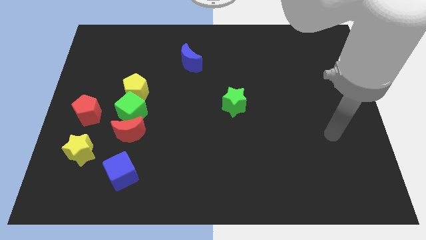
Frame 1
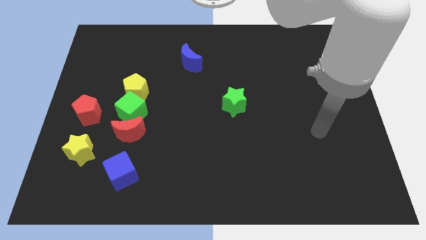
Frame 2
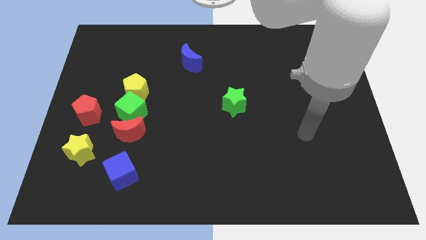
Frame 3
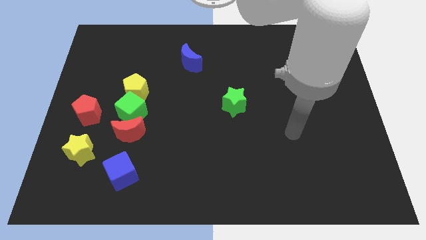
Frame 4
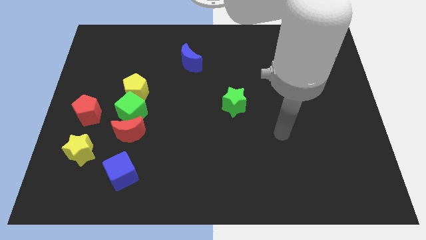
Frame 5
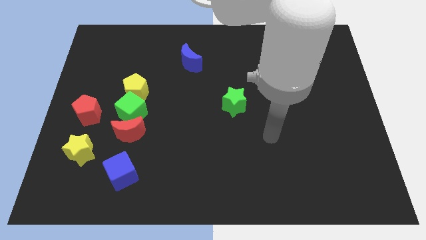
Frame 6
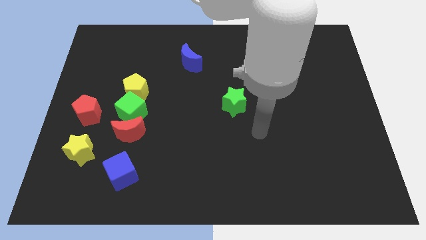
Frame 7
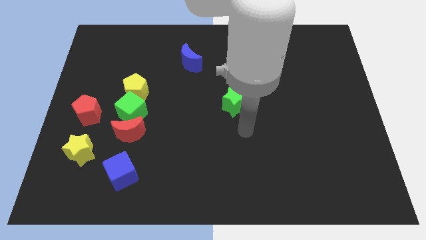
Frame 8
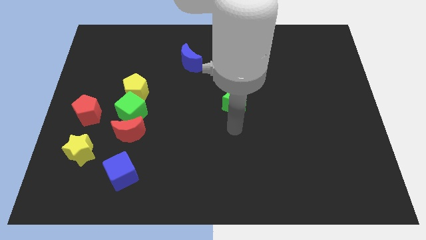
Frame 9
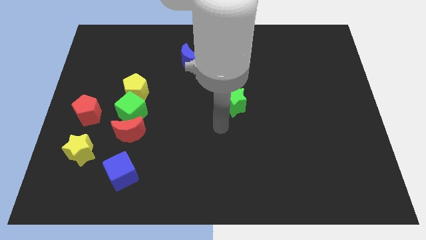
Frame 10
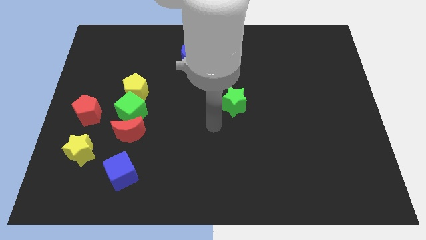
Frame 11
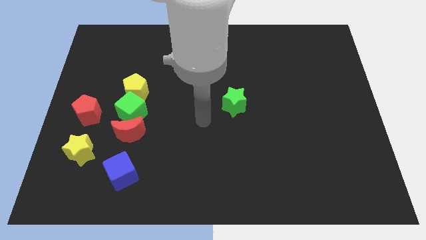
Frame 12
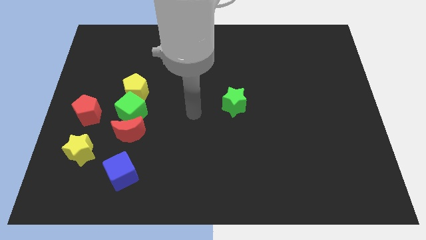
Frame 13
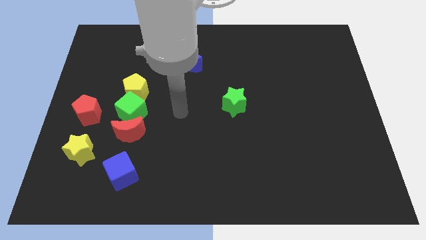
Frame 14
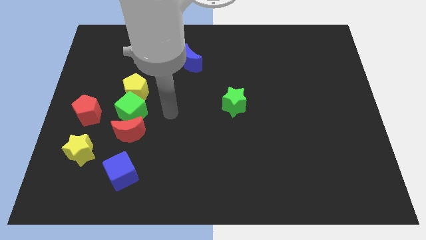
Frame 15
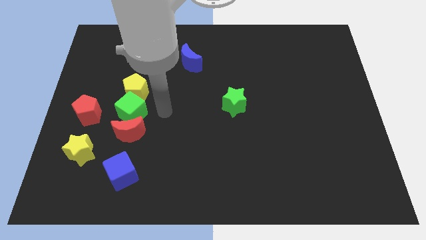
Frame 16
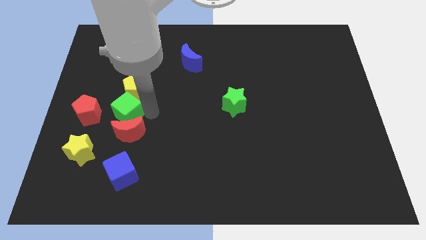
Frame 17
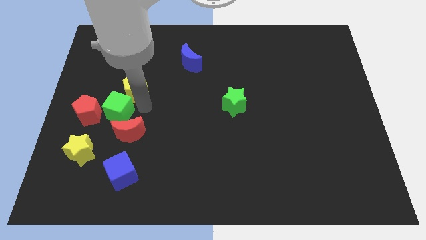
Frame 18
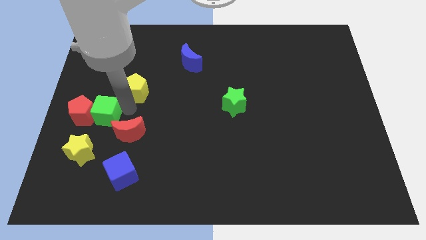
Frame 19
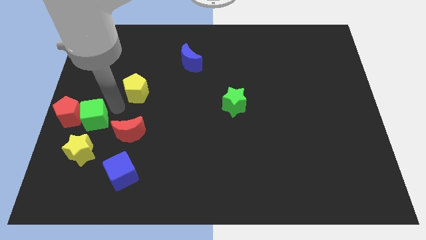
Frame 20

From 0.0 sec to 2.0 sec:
separate the yellow pentagon from the green cube

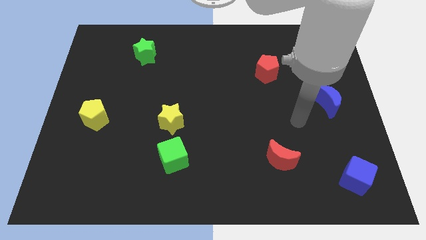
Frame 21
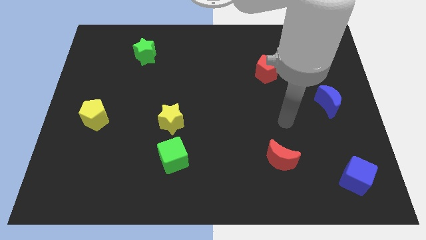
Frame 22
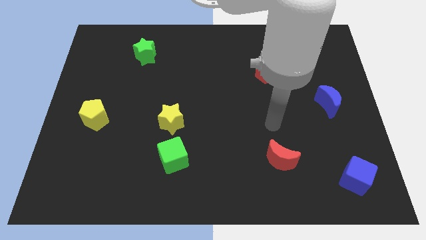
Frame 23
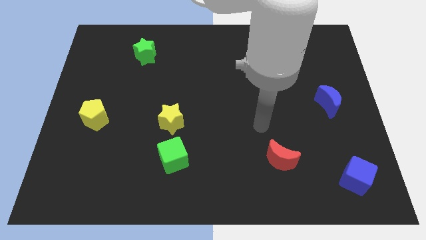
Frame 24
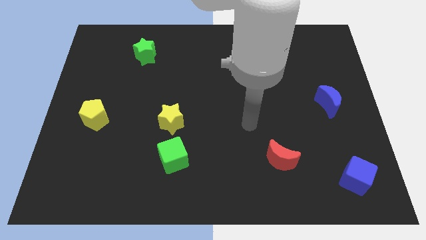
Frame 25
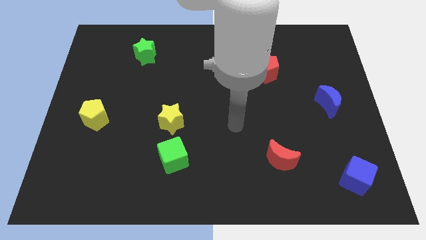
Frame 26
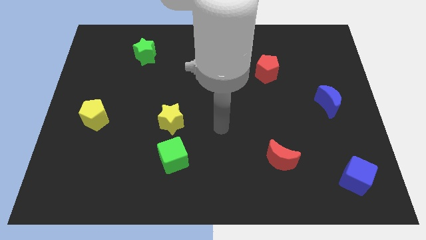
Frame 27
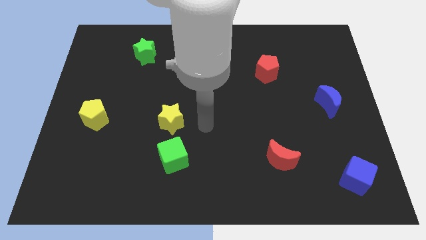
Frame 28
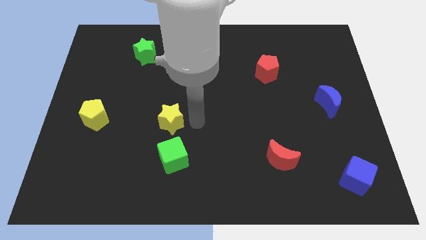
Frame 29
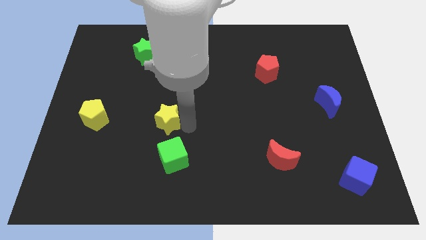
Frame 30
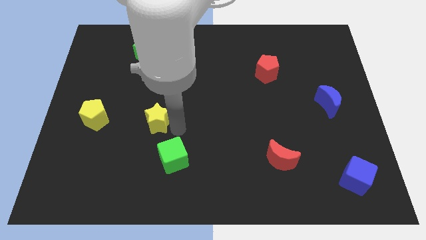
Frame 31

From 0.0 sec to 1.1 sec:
separate the green cube from the yellow star

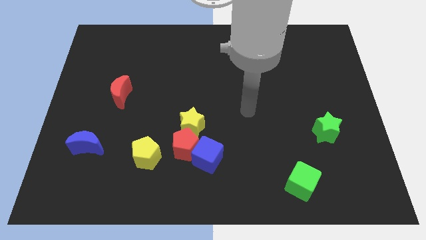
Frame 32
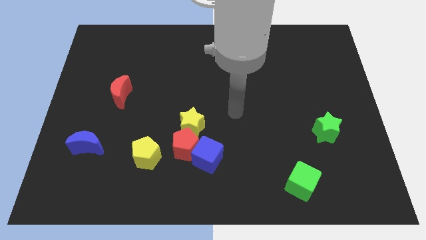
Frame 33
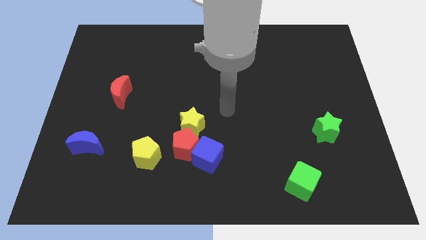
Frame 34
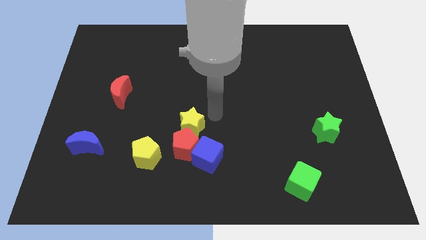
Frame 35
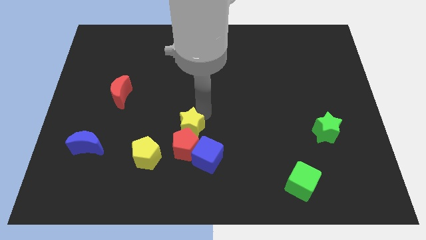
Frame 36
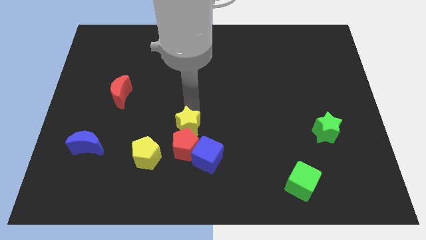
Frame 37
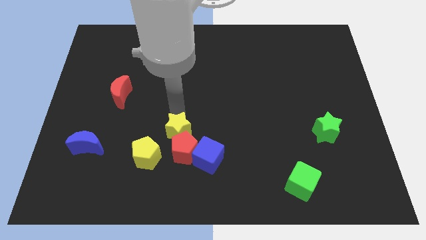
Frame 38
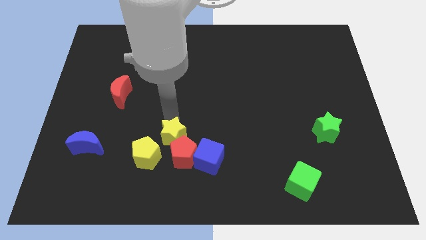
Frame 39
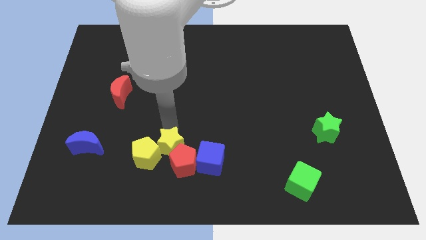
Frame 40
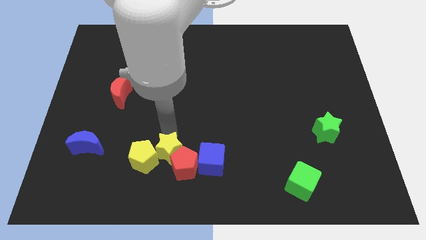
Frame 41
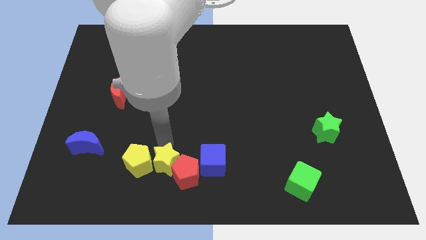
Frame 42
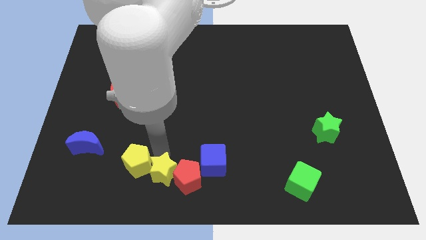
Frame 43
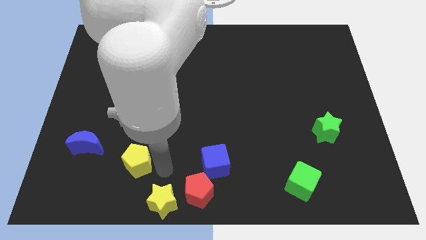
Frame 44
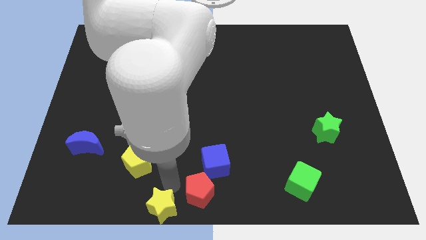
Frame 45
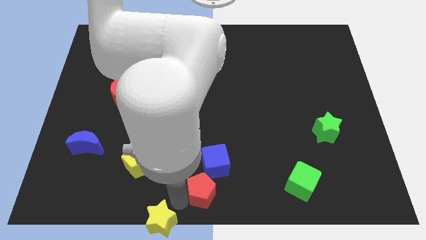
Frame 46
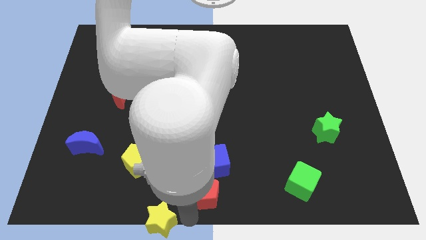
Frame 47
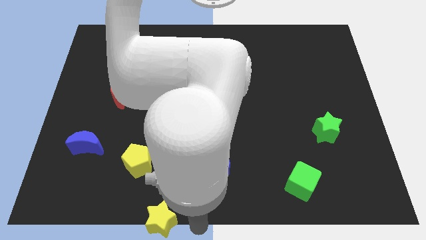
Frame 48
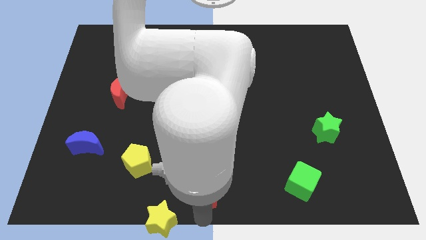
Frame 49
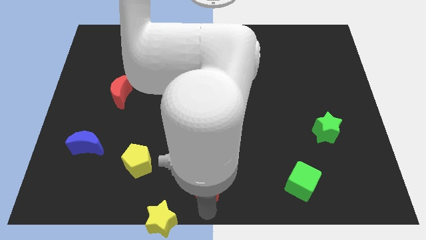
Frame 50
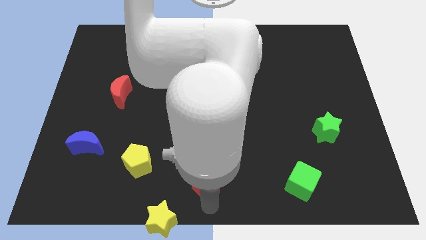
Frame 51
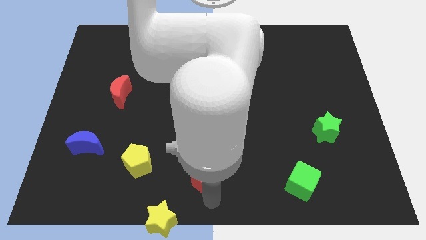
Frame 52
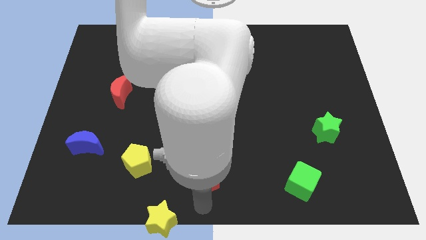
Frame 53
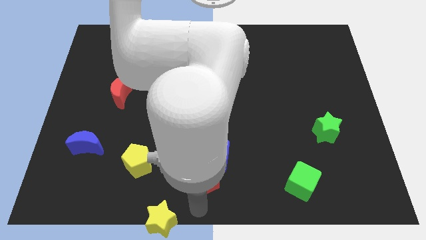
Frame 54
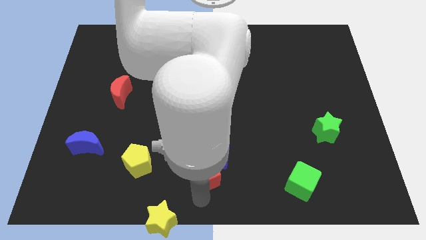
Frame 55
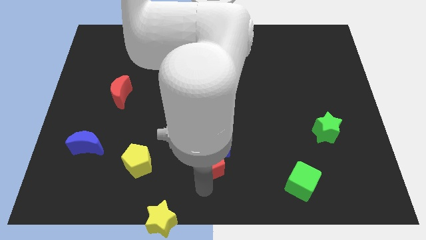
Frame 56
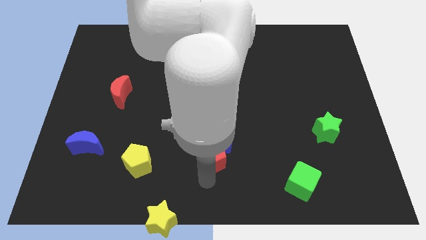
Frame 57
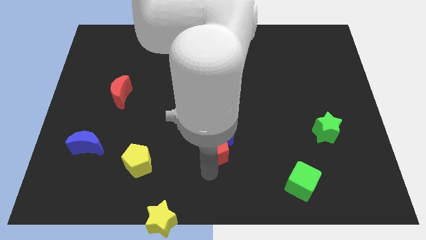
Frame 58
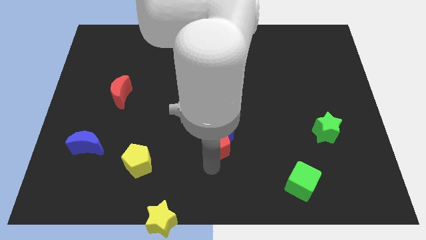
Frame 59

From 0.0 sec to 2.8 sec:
pull the red pentagon apart from the blue cube, yellow star, and yellow pentagon

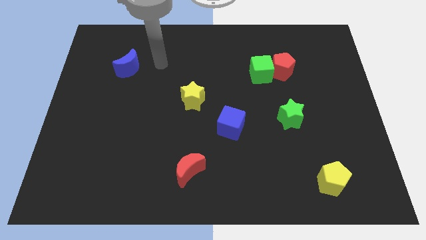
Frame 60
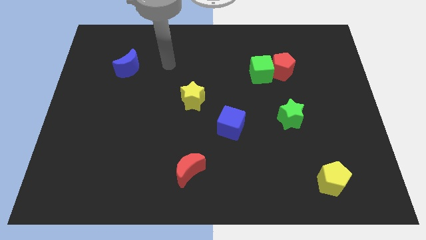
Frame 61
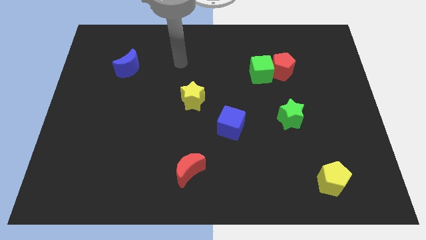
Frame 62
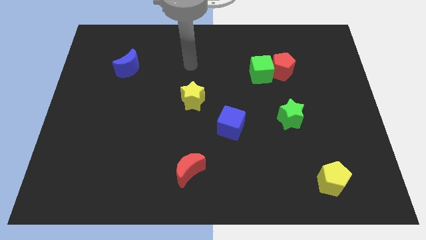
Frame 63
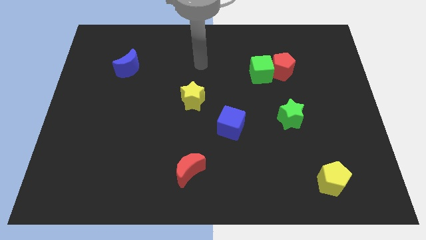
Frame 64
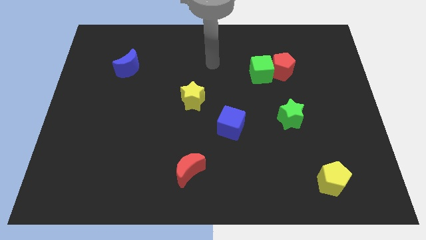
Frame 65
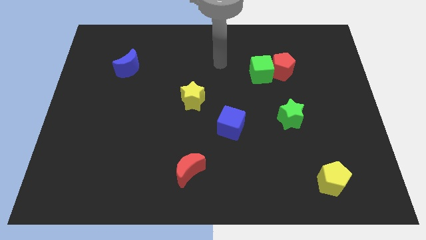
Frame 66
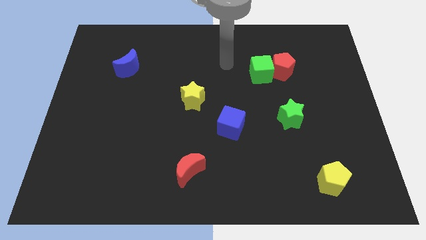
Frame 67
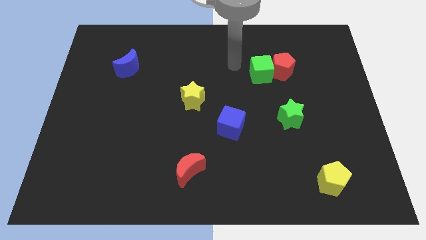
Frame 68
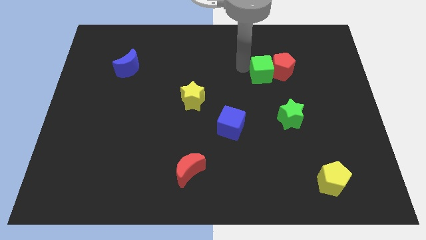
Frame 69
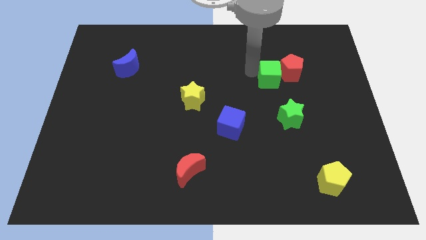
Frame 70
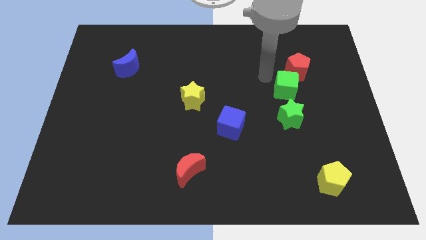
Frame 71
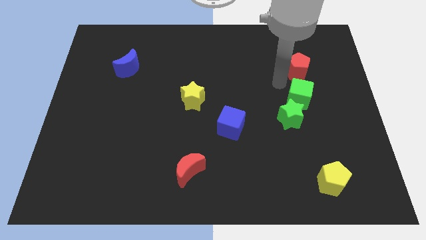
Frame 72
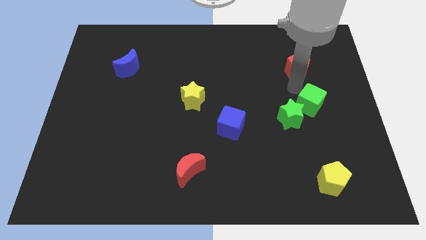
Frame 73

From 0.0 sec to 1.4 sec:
pull the red pentagon apart from the green cube

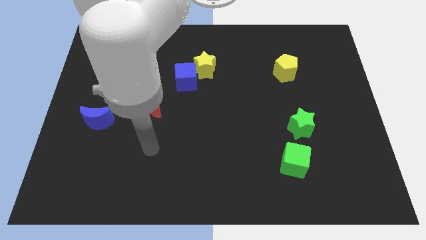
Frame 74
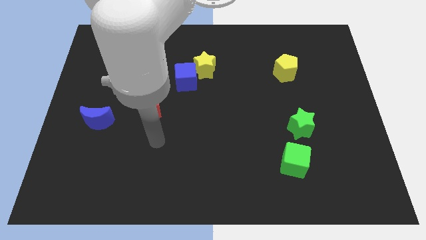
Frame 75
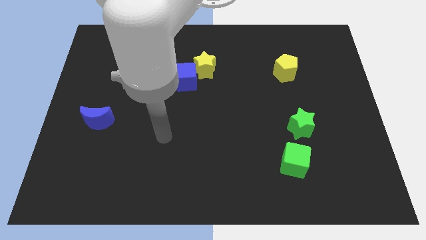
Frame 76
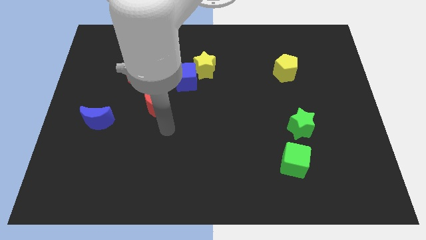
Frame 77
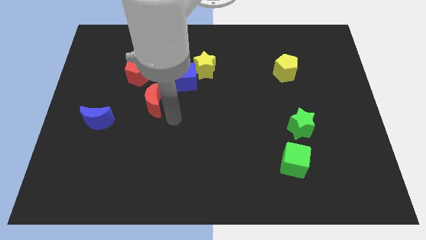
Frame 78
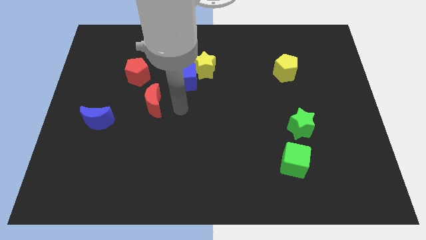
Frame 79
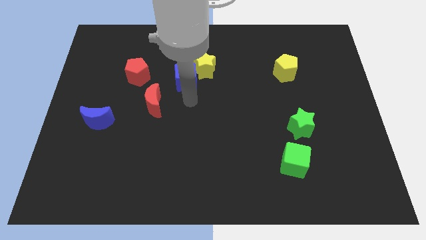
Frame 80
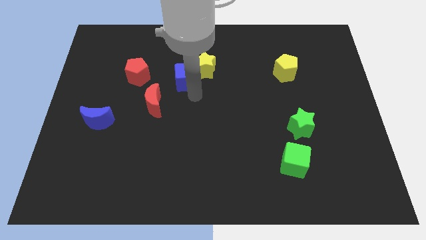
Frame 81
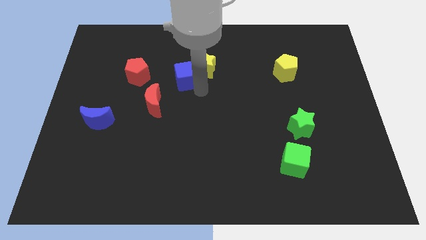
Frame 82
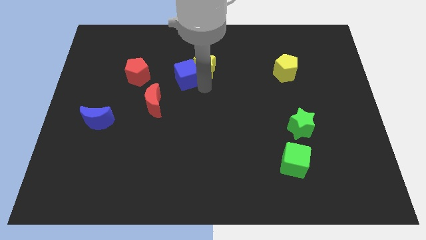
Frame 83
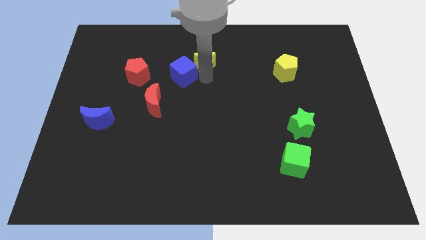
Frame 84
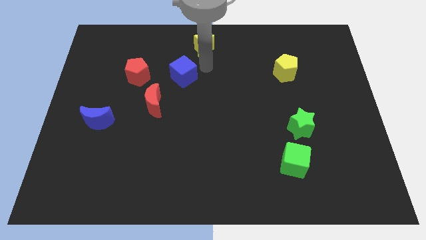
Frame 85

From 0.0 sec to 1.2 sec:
move the blue cube away from the yellow star

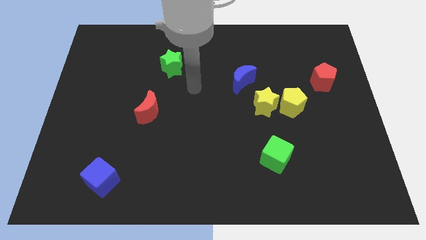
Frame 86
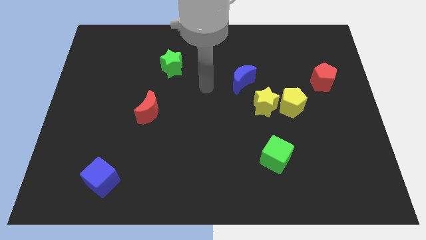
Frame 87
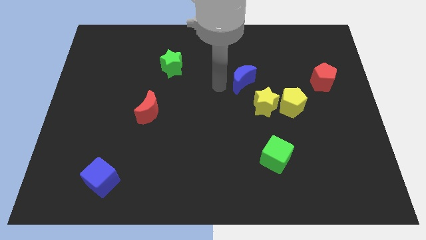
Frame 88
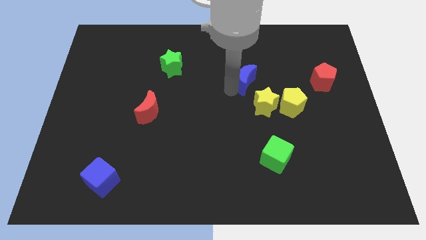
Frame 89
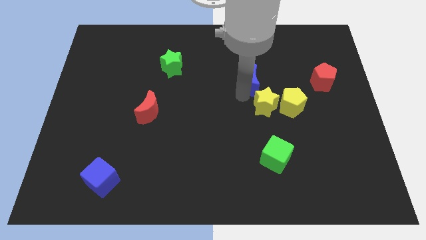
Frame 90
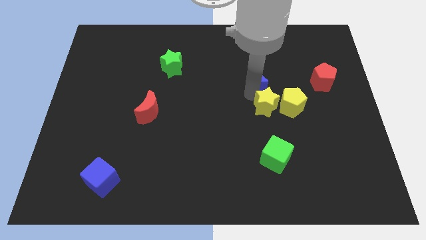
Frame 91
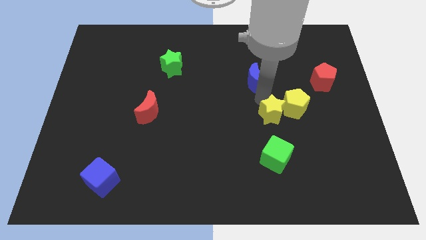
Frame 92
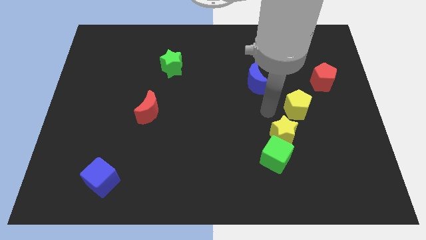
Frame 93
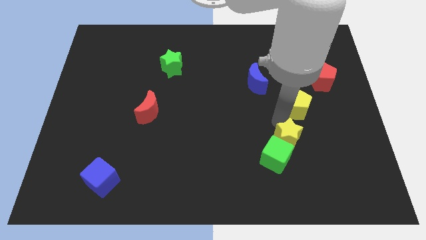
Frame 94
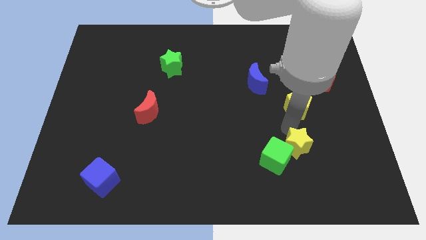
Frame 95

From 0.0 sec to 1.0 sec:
separate the yellow pentagon from the yellow star

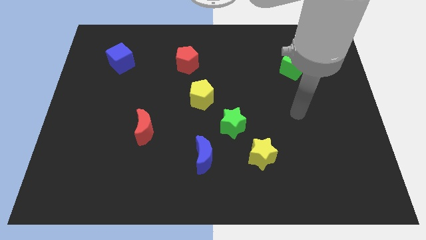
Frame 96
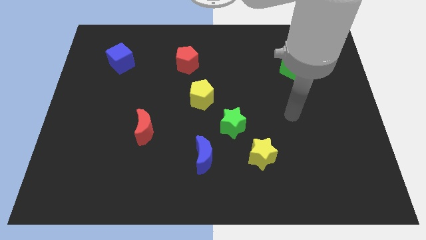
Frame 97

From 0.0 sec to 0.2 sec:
separate the yellow star from the green star
